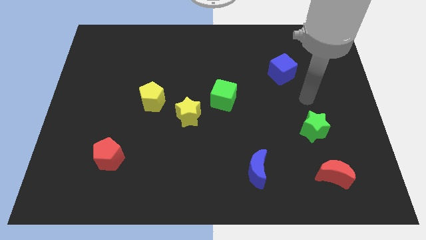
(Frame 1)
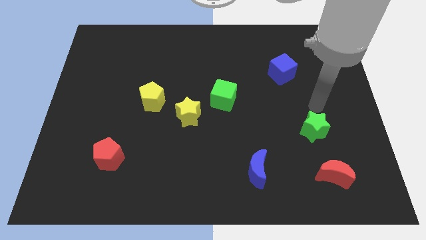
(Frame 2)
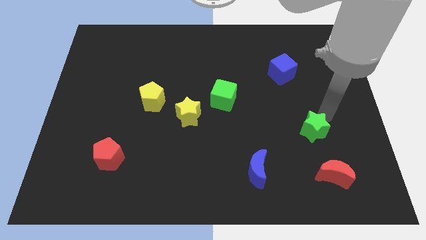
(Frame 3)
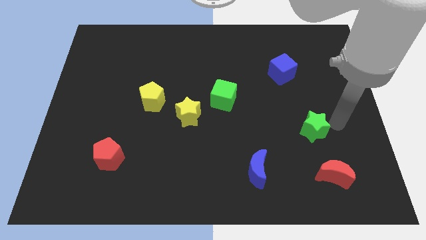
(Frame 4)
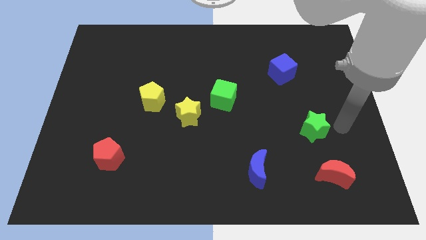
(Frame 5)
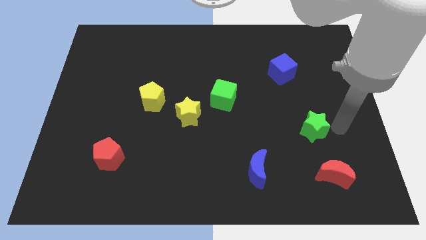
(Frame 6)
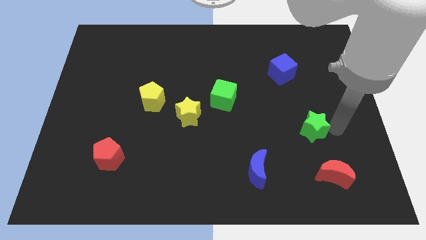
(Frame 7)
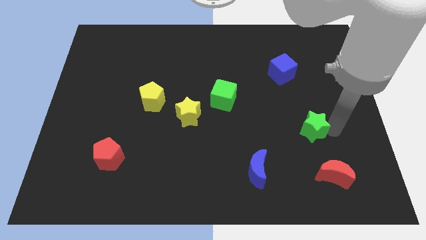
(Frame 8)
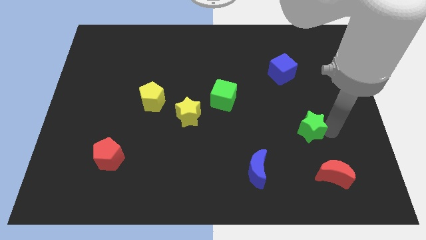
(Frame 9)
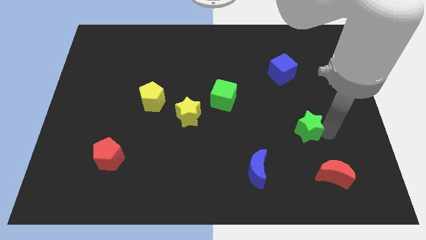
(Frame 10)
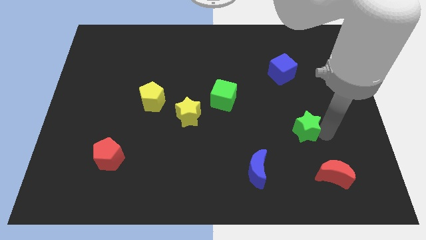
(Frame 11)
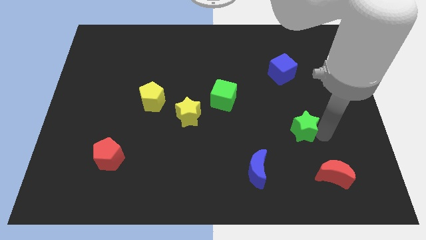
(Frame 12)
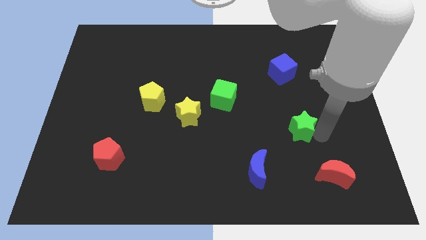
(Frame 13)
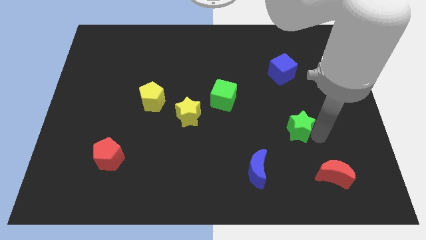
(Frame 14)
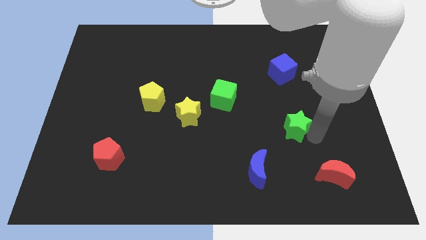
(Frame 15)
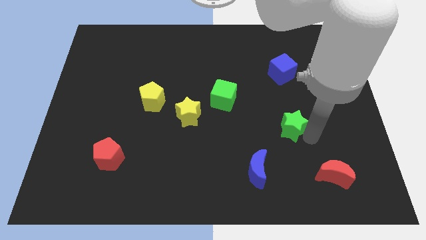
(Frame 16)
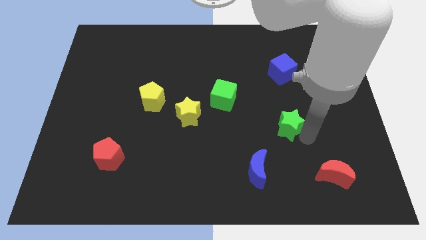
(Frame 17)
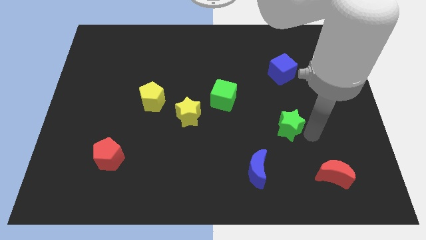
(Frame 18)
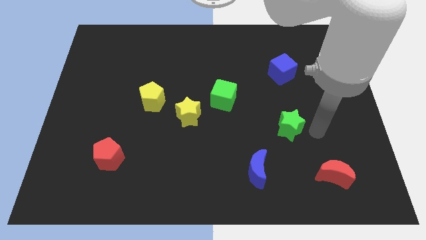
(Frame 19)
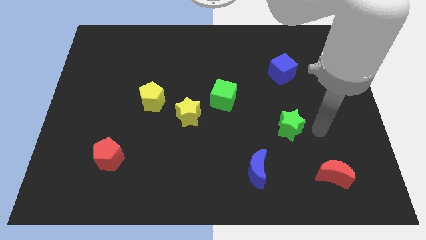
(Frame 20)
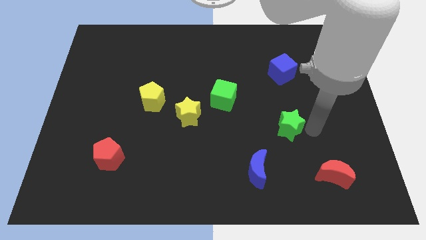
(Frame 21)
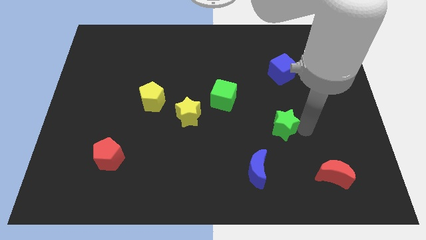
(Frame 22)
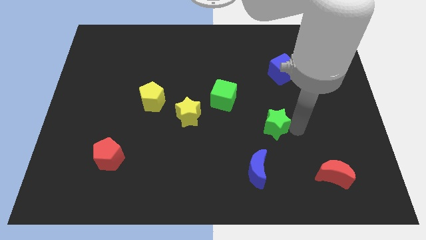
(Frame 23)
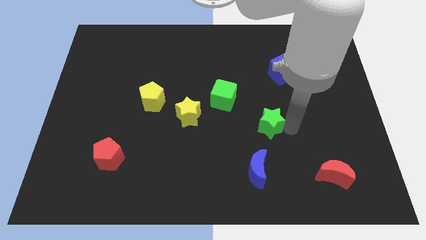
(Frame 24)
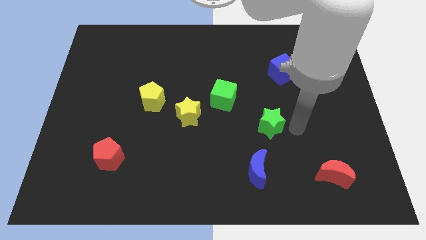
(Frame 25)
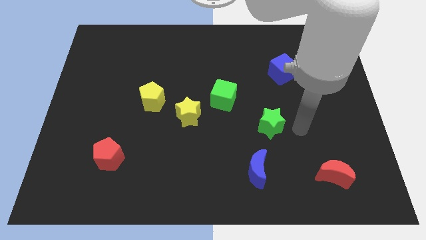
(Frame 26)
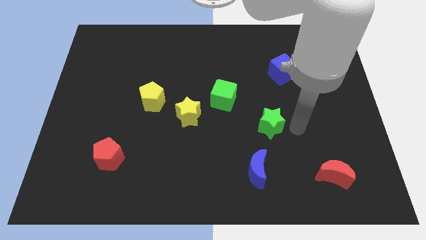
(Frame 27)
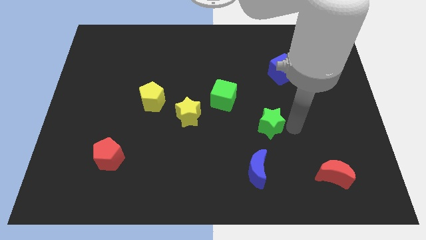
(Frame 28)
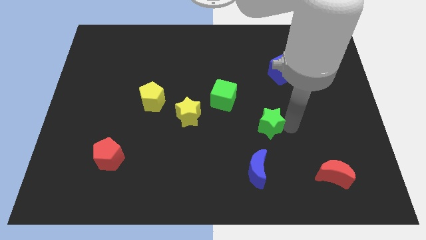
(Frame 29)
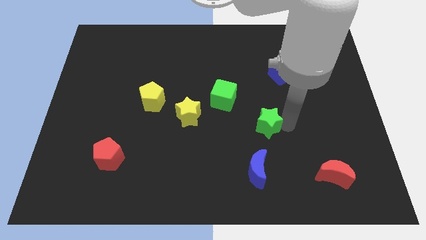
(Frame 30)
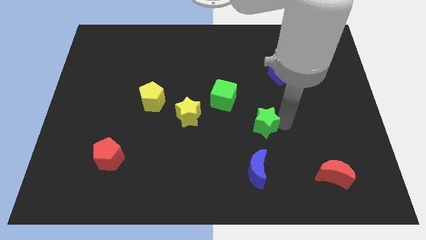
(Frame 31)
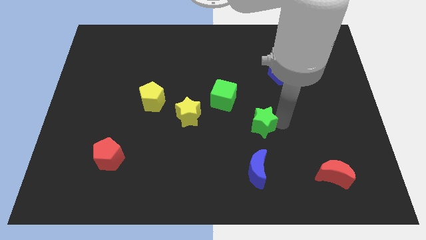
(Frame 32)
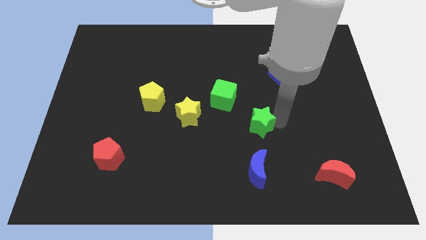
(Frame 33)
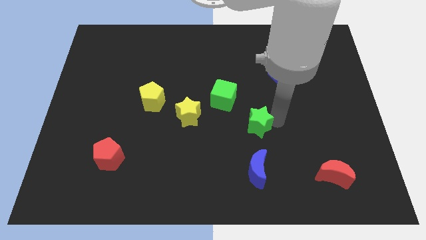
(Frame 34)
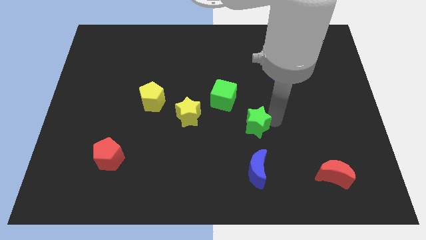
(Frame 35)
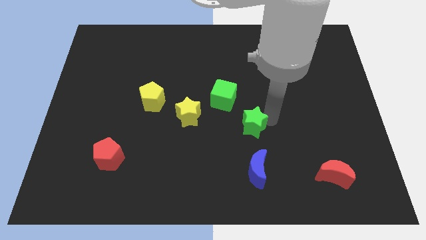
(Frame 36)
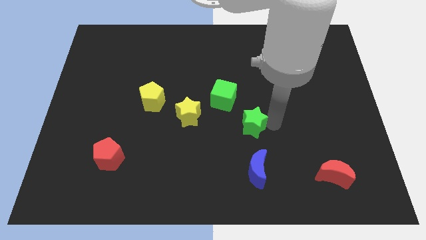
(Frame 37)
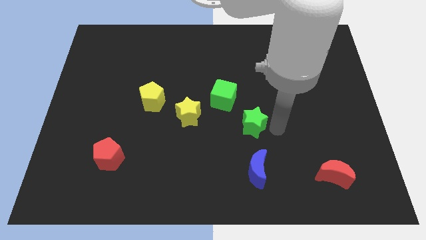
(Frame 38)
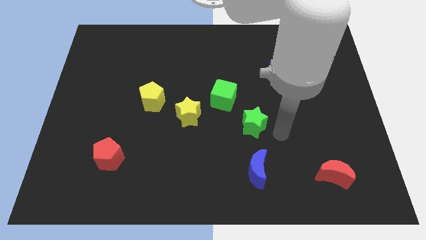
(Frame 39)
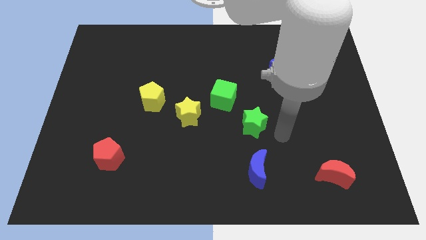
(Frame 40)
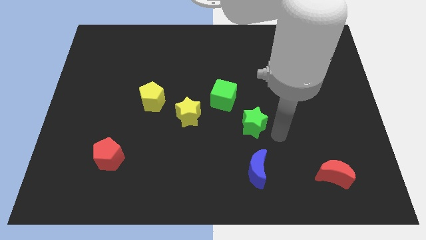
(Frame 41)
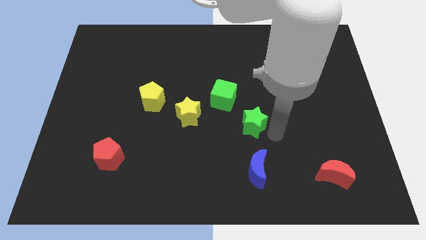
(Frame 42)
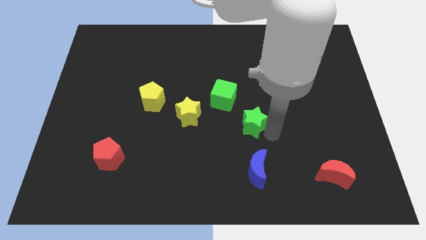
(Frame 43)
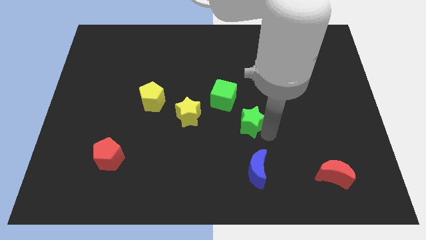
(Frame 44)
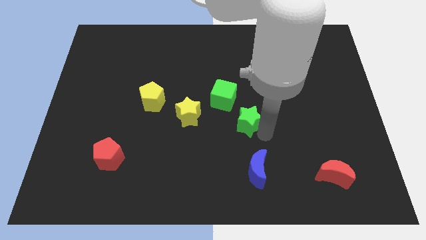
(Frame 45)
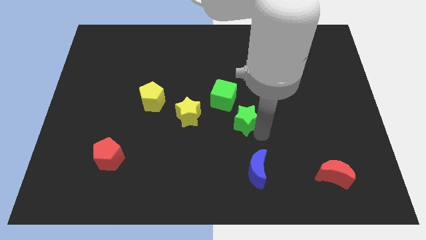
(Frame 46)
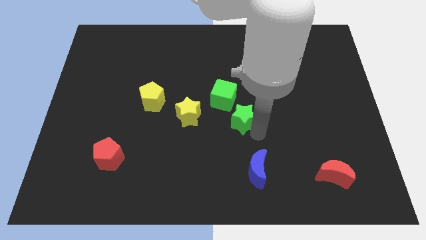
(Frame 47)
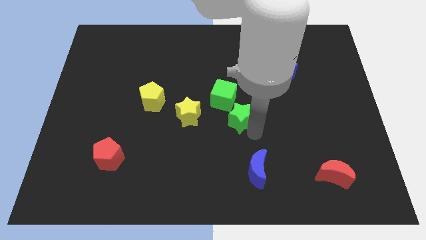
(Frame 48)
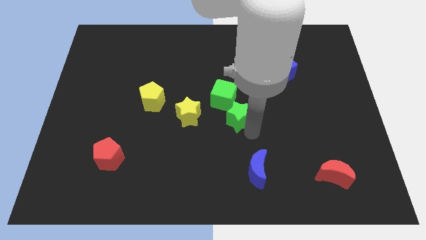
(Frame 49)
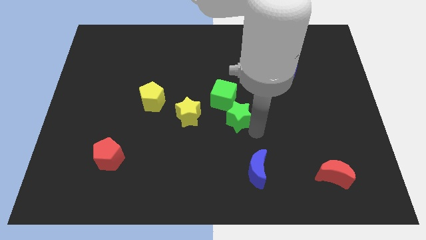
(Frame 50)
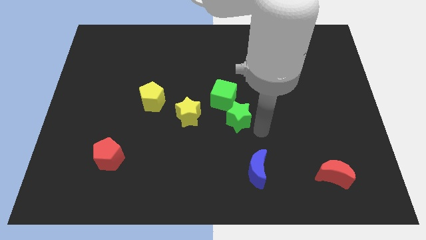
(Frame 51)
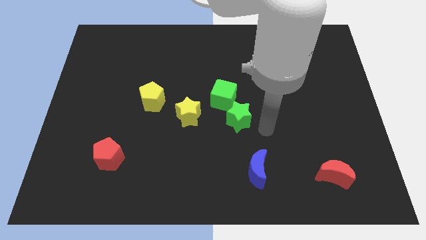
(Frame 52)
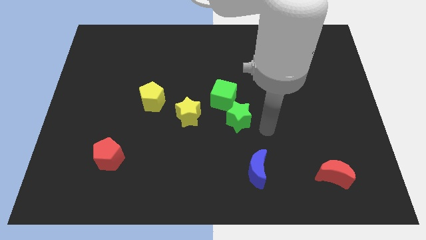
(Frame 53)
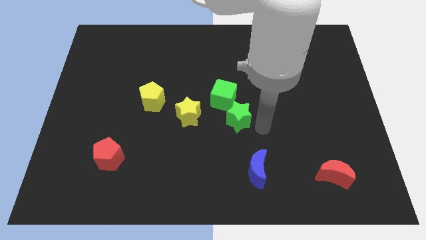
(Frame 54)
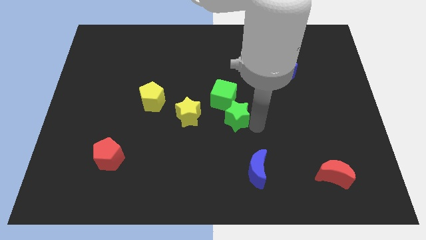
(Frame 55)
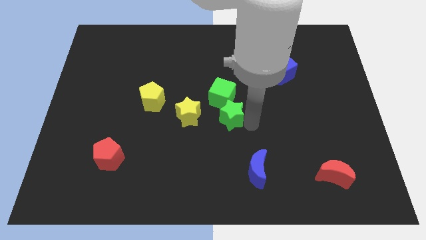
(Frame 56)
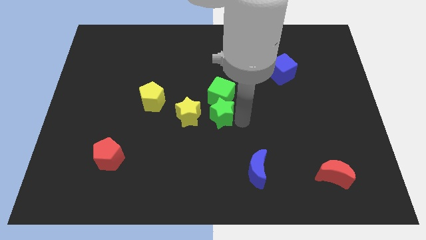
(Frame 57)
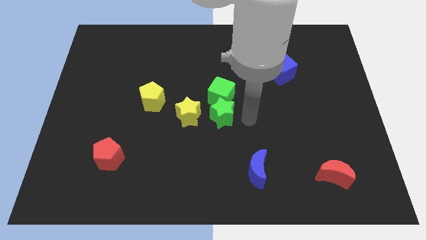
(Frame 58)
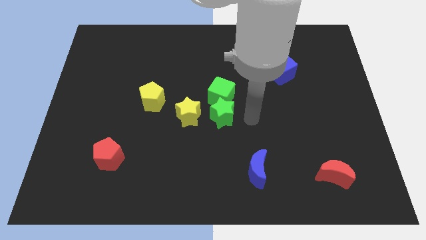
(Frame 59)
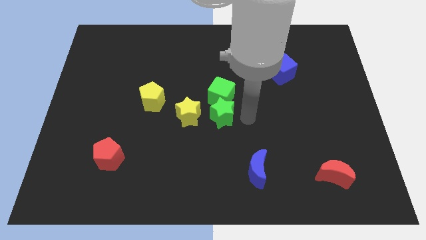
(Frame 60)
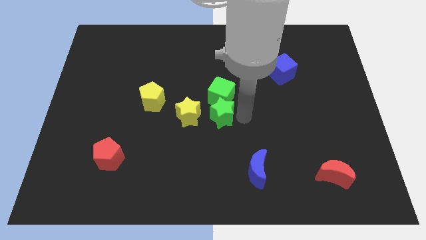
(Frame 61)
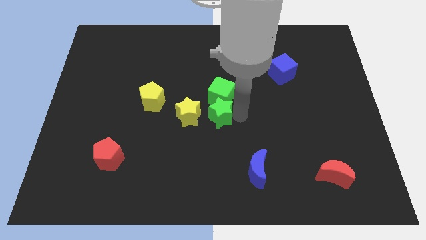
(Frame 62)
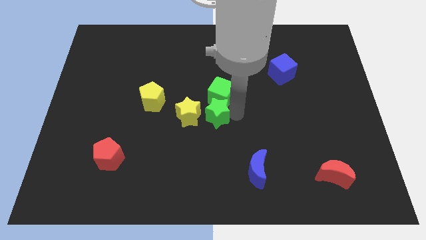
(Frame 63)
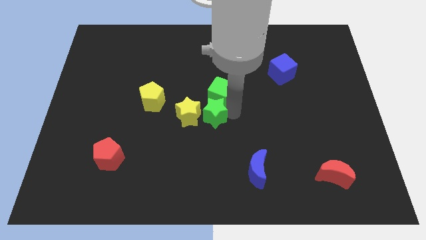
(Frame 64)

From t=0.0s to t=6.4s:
slide the green star towards the yellow star

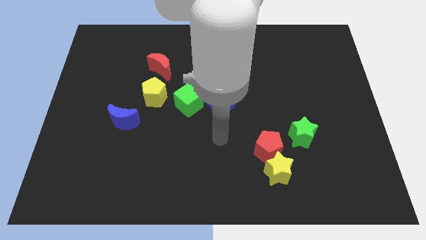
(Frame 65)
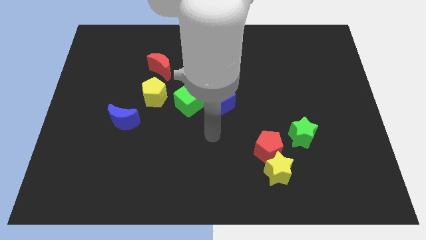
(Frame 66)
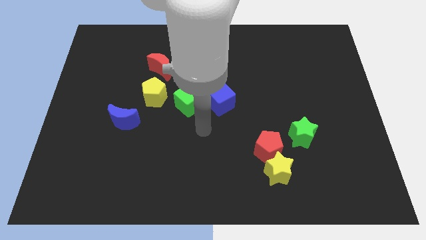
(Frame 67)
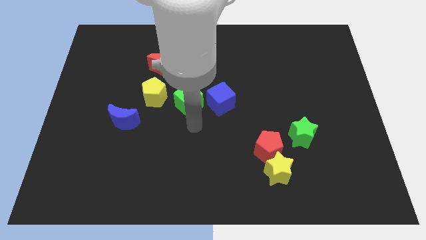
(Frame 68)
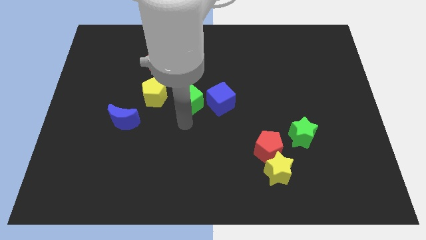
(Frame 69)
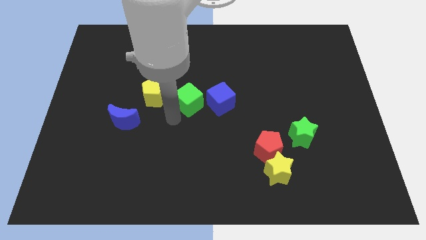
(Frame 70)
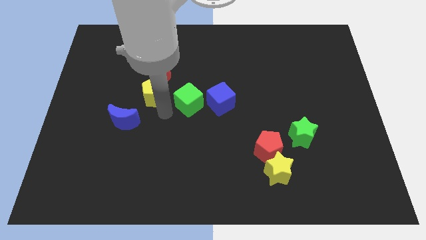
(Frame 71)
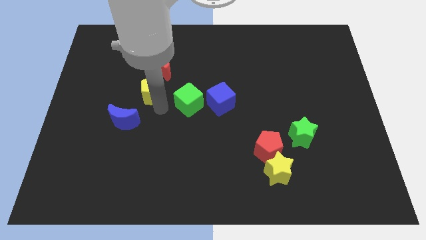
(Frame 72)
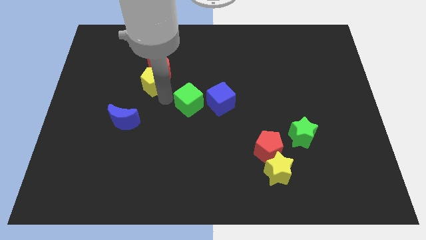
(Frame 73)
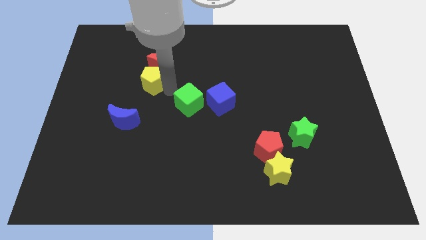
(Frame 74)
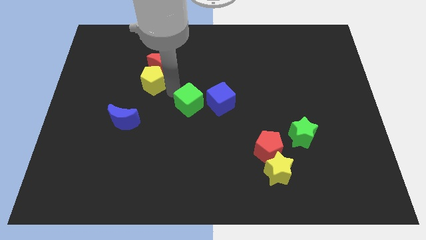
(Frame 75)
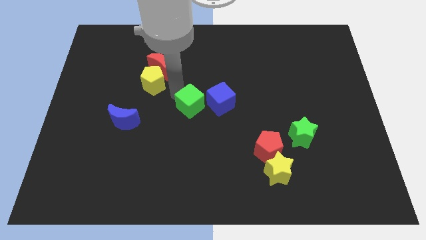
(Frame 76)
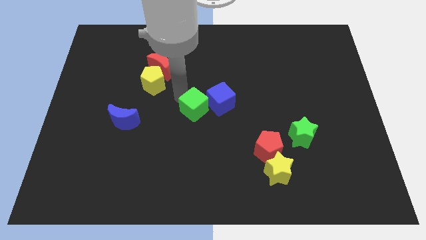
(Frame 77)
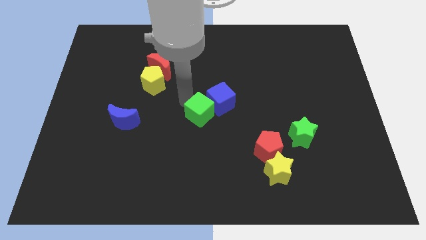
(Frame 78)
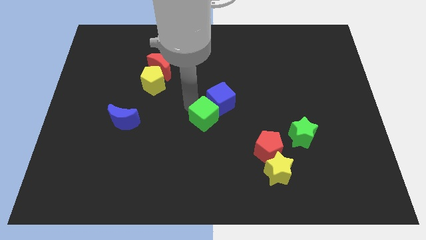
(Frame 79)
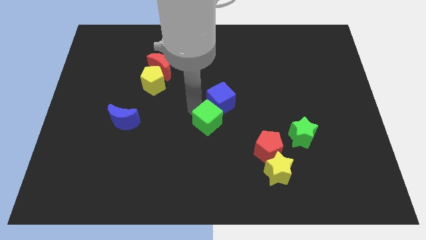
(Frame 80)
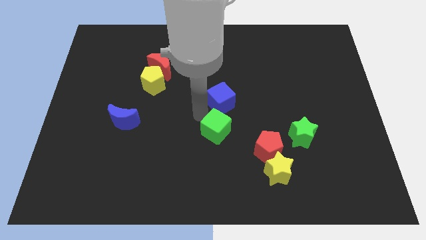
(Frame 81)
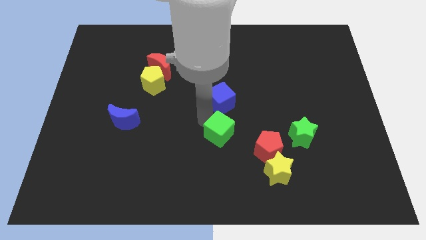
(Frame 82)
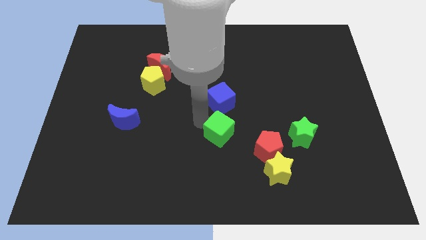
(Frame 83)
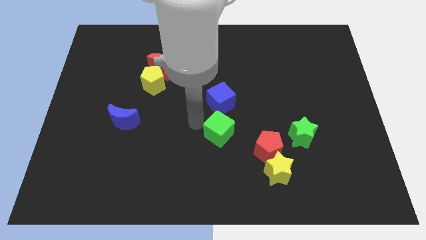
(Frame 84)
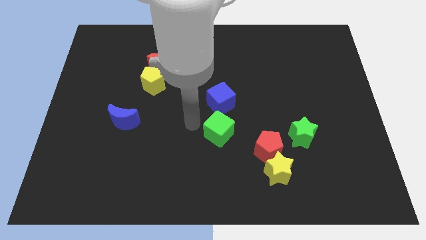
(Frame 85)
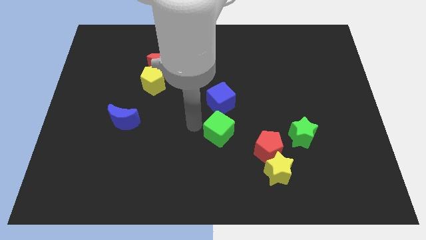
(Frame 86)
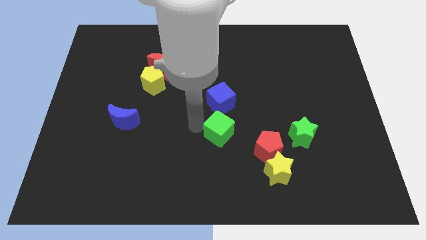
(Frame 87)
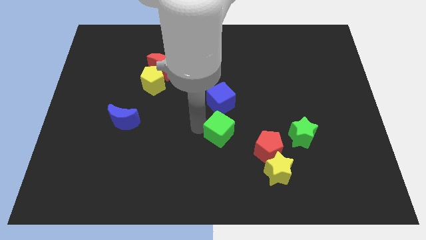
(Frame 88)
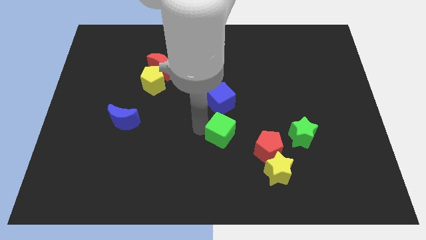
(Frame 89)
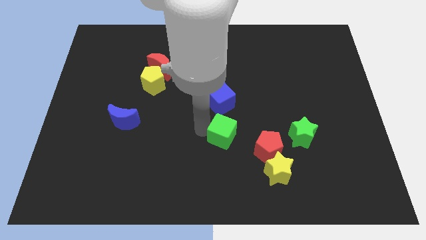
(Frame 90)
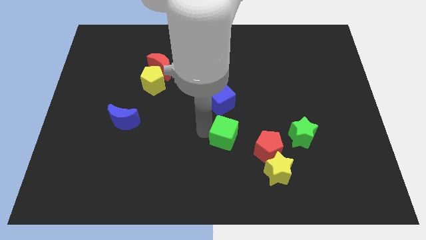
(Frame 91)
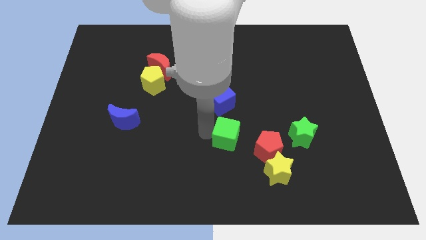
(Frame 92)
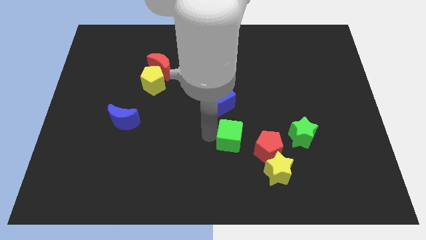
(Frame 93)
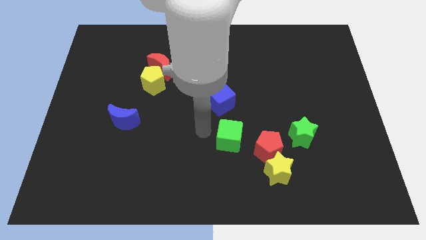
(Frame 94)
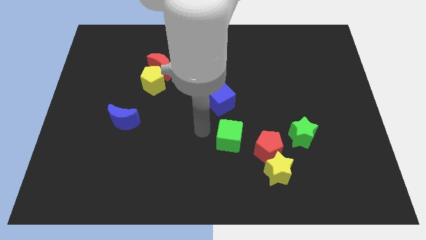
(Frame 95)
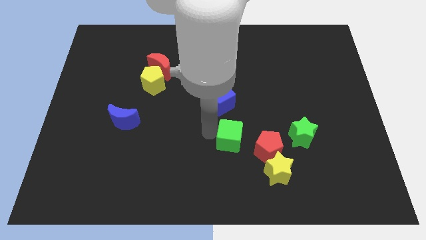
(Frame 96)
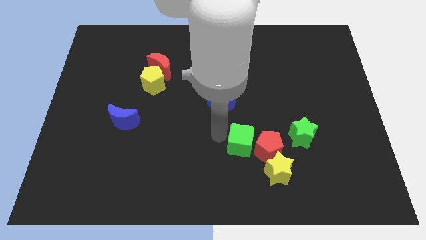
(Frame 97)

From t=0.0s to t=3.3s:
put the green cube to the red pentagon
